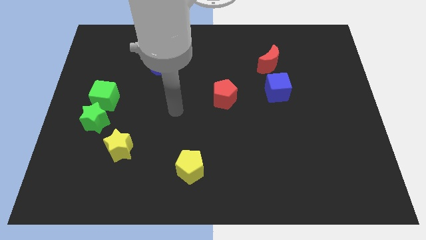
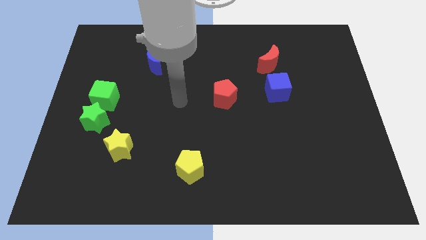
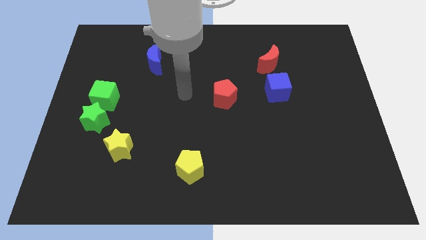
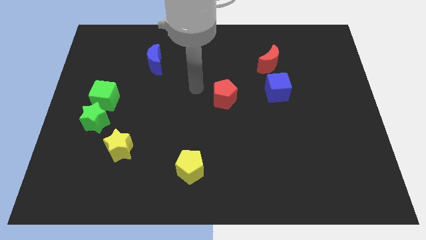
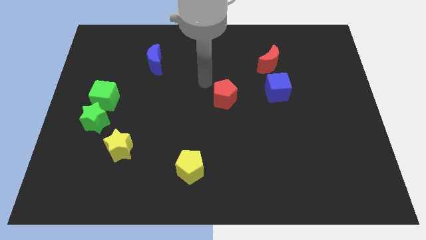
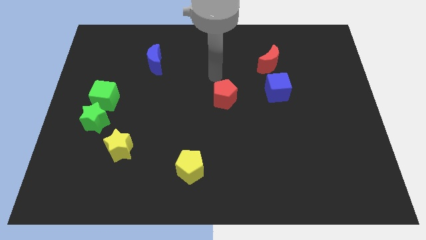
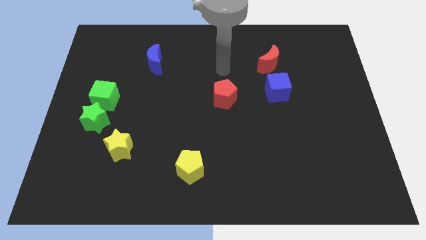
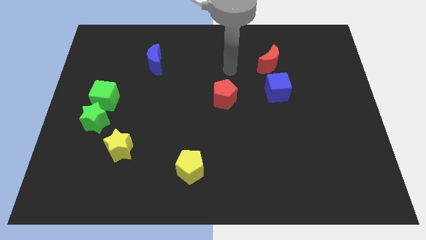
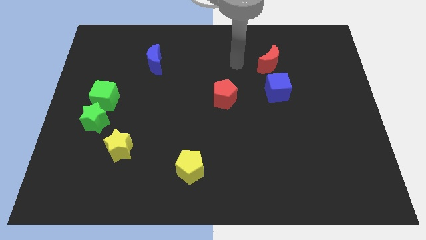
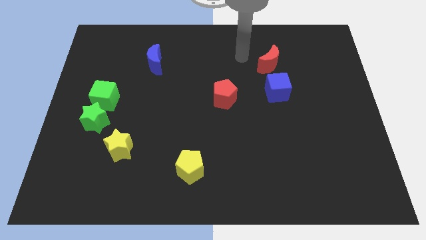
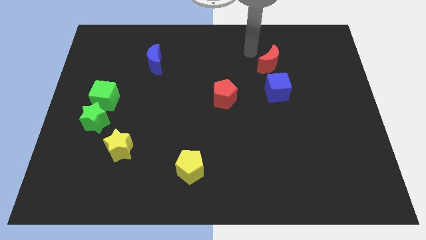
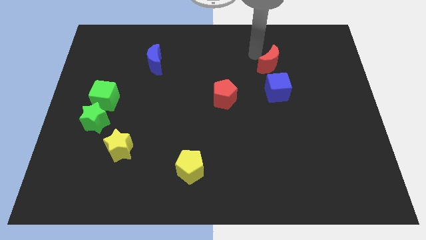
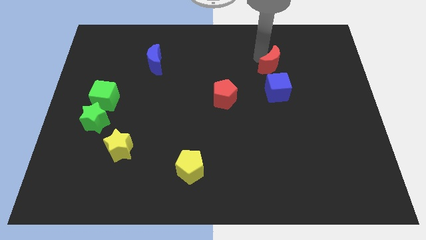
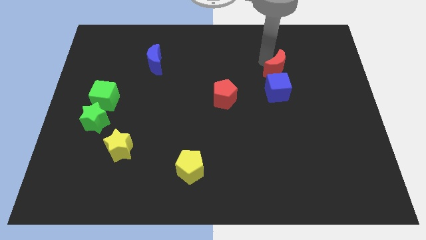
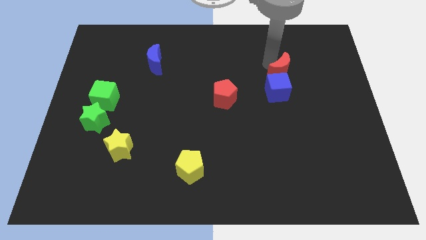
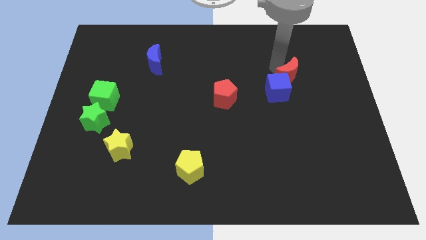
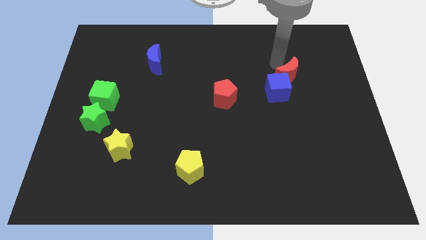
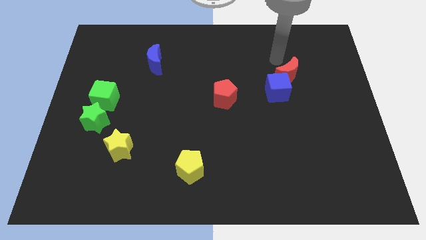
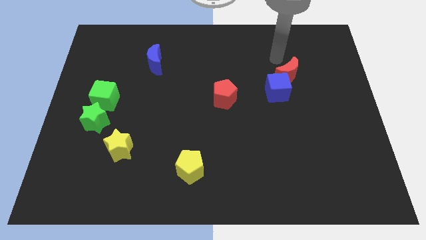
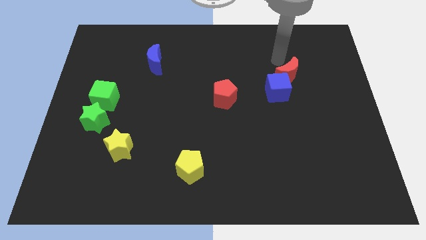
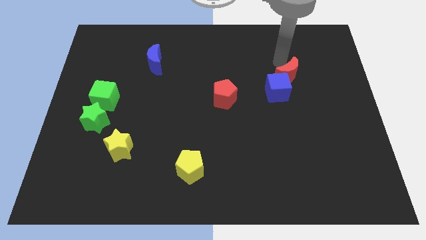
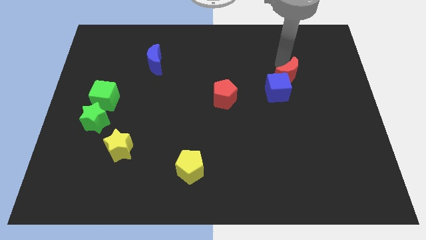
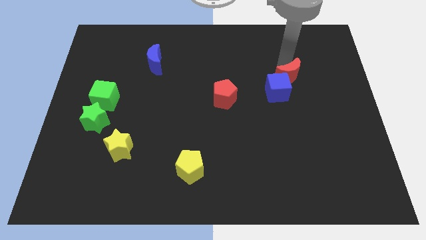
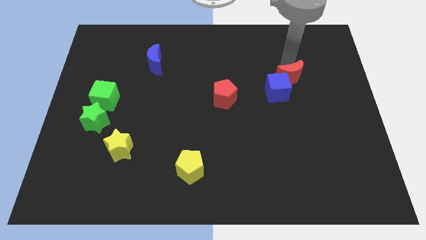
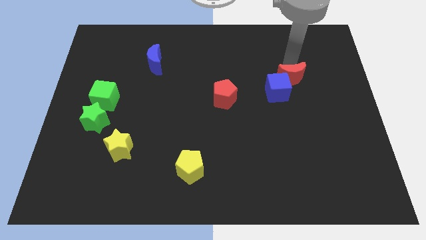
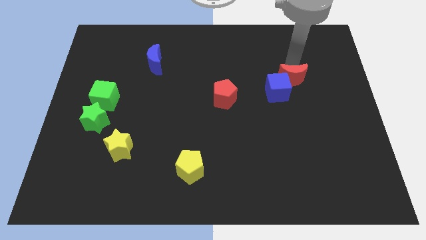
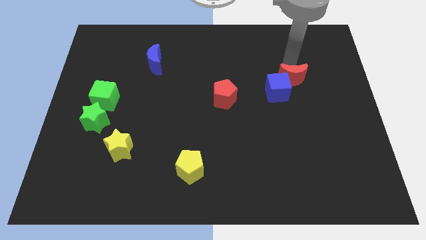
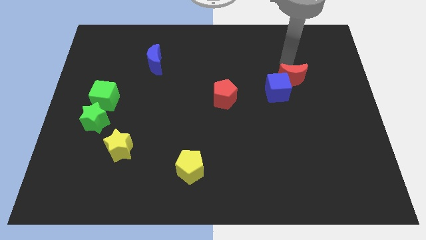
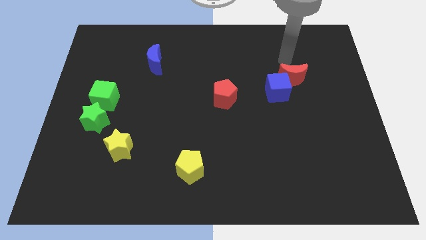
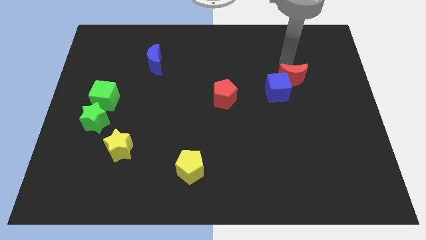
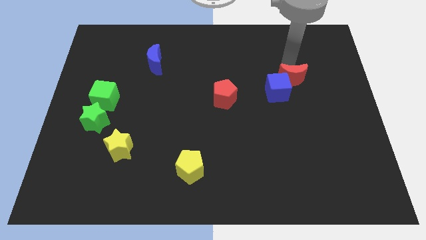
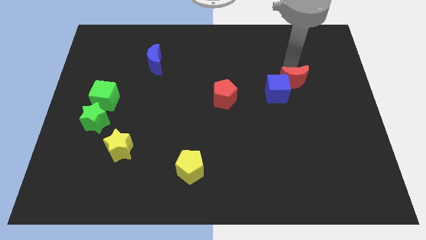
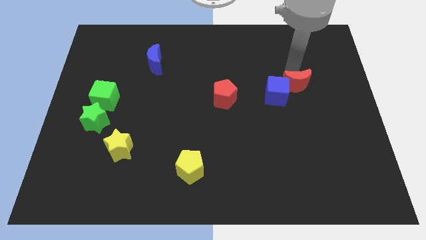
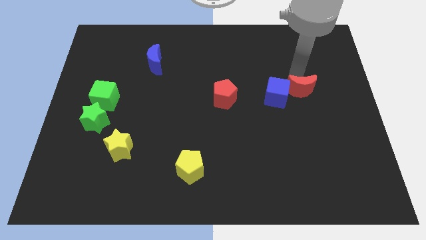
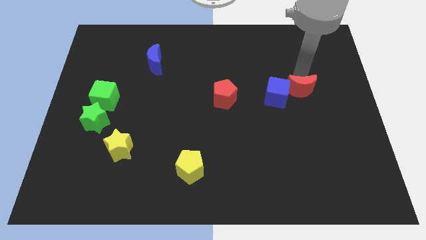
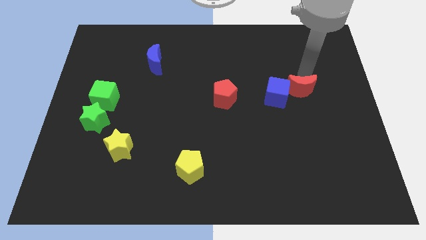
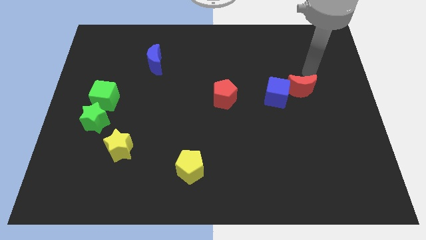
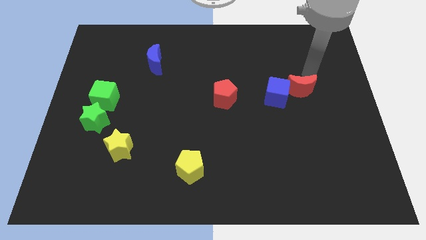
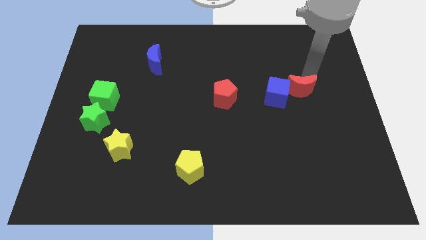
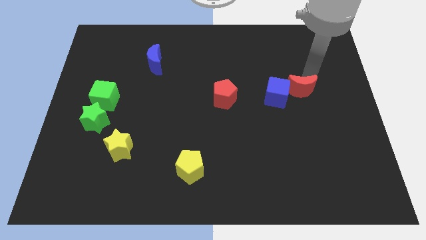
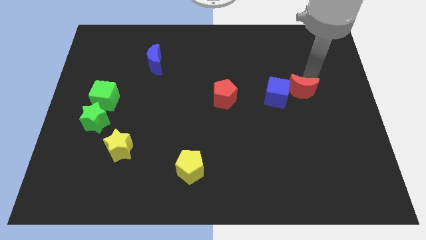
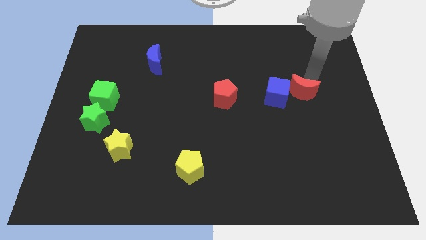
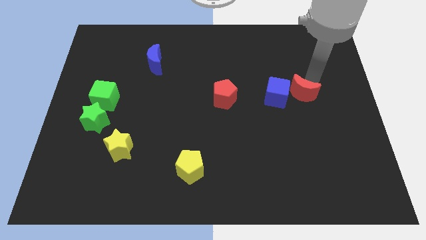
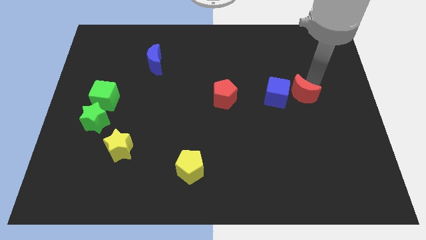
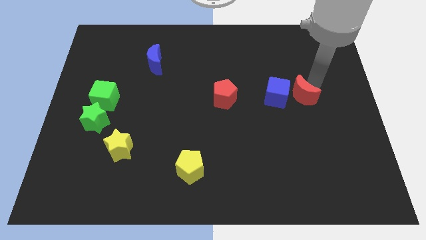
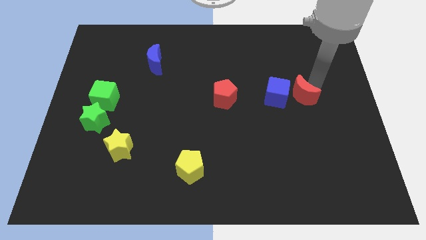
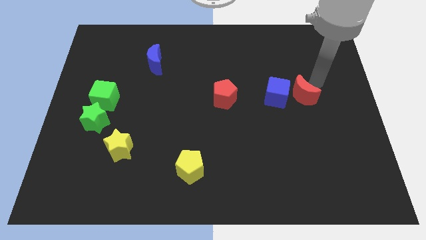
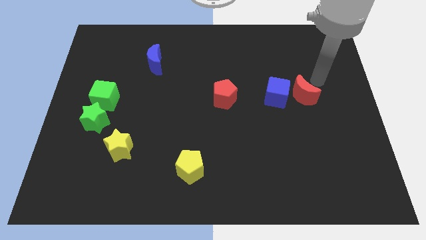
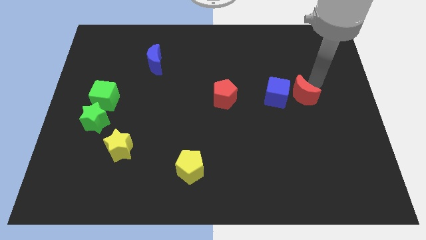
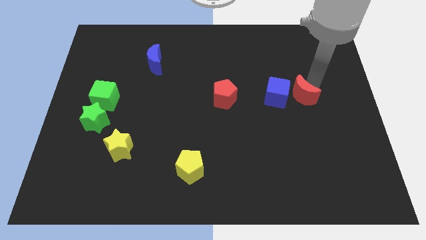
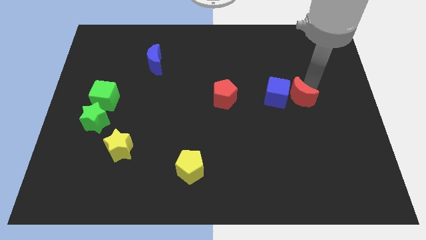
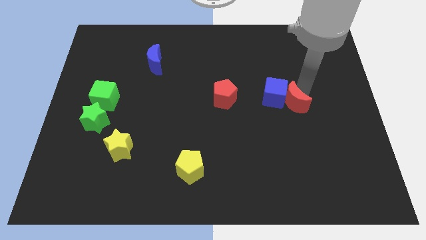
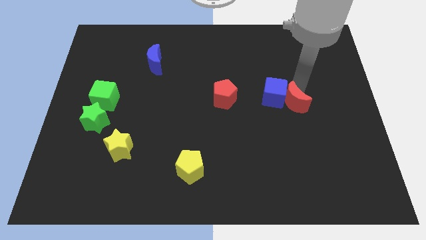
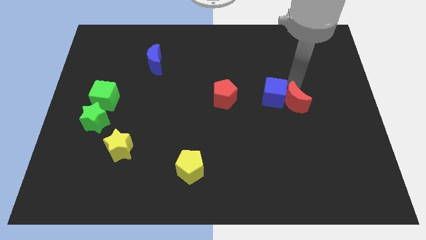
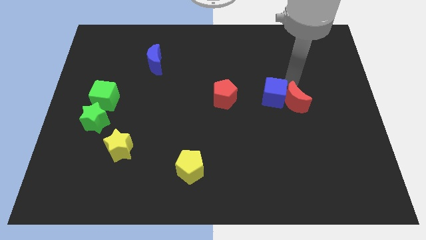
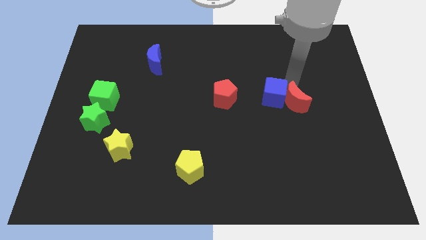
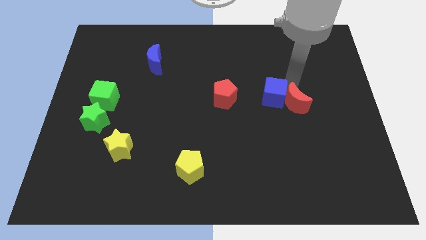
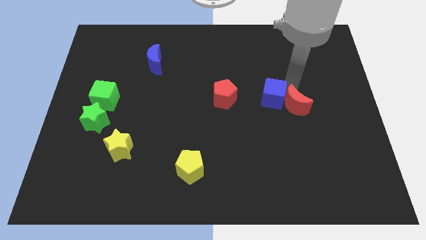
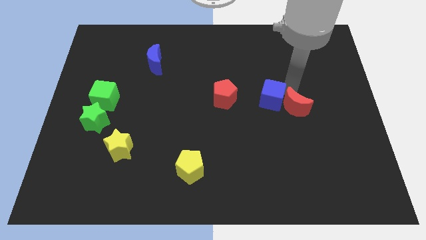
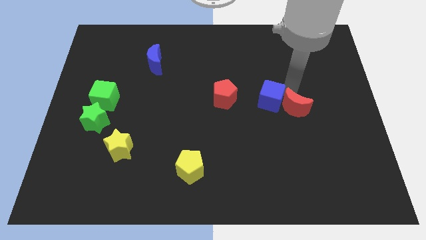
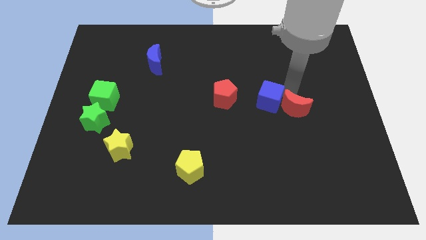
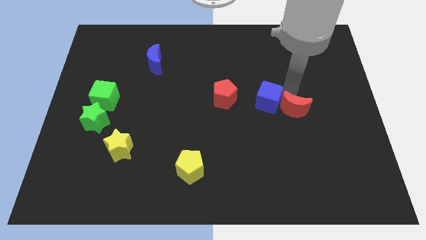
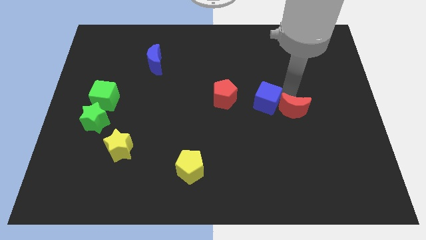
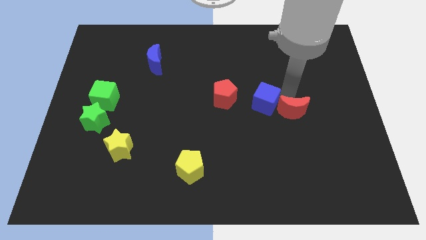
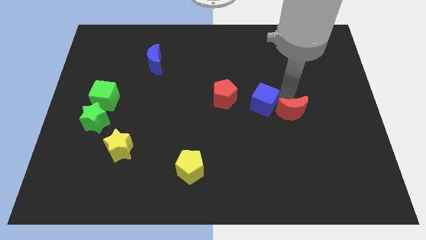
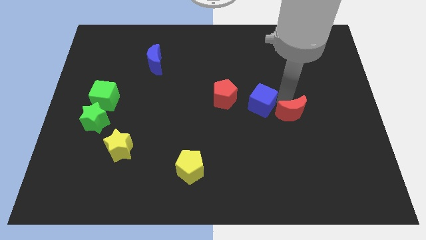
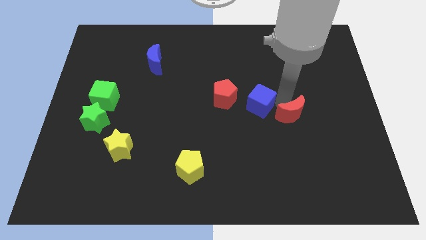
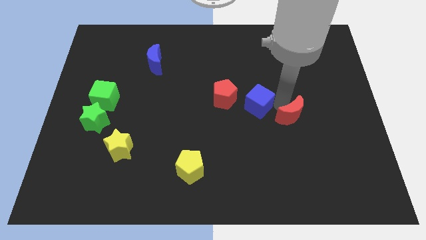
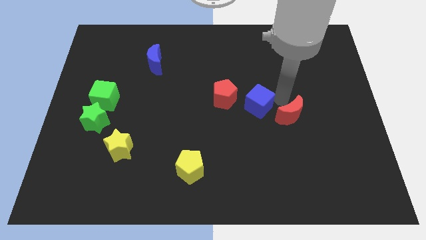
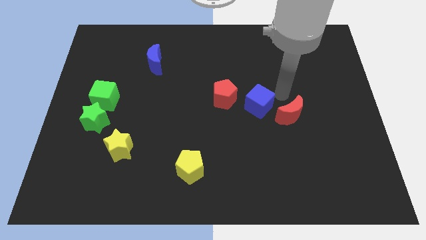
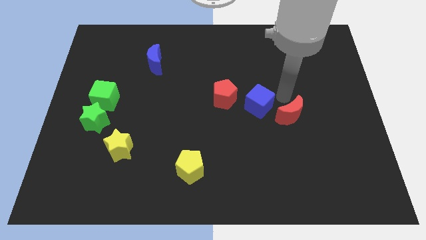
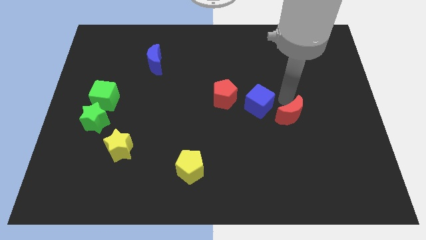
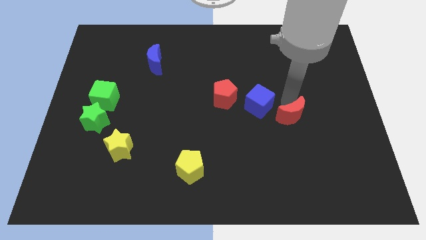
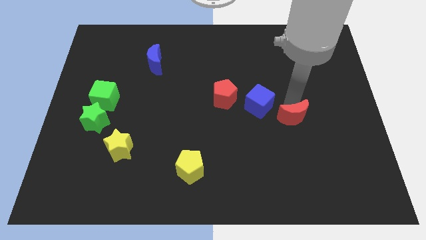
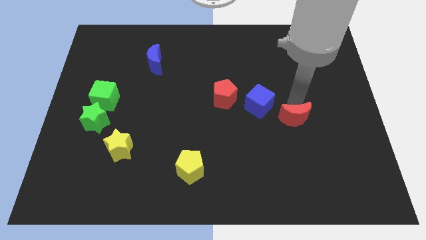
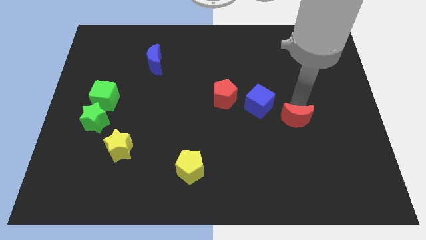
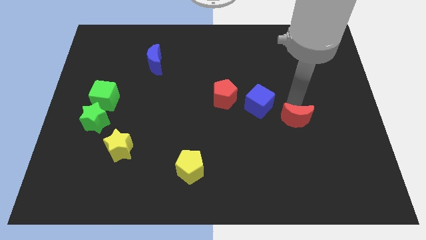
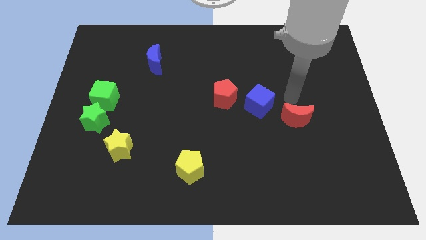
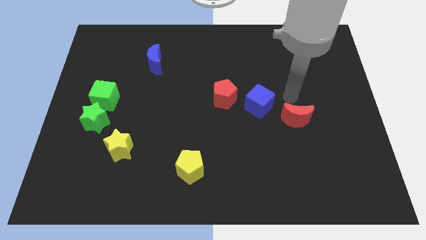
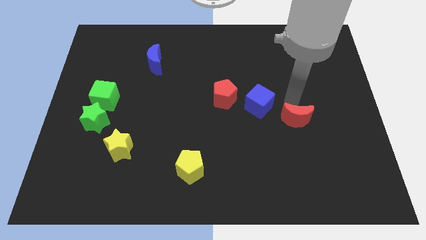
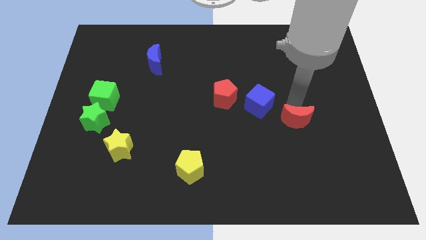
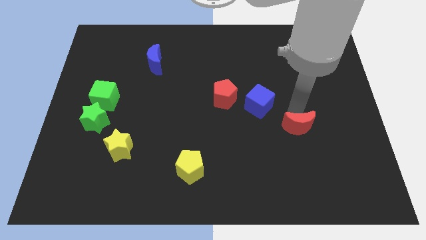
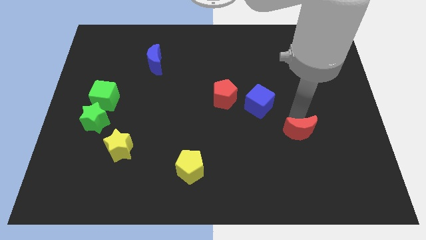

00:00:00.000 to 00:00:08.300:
slide the red moon downwards
